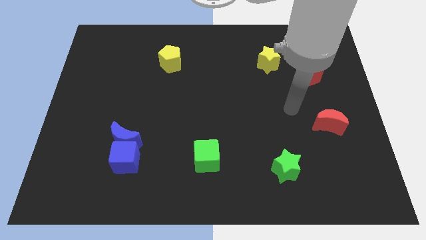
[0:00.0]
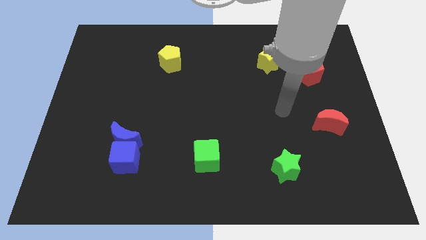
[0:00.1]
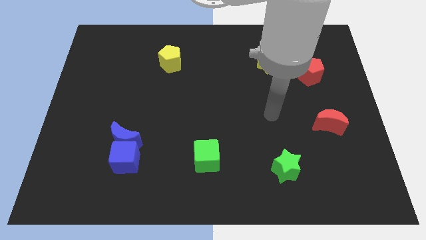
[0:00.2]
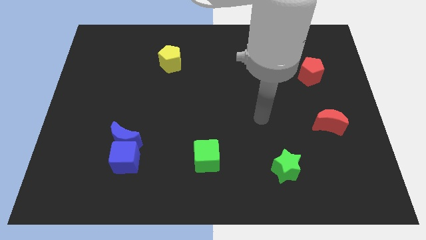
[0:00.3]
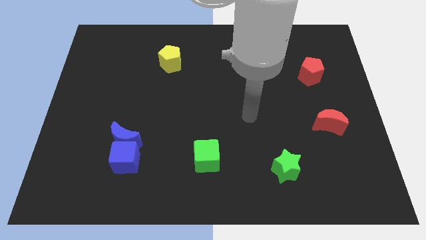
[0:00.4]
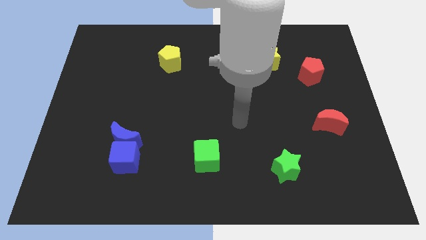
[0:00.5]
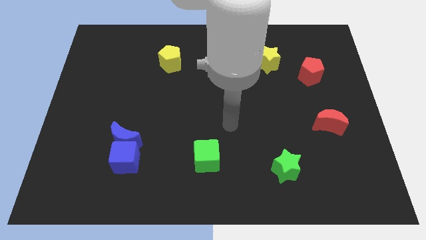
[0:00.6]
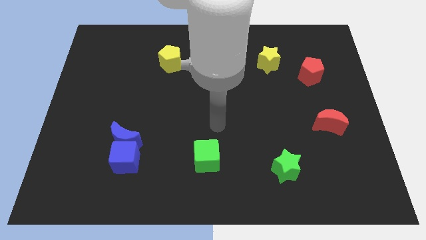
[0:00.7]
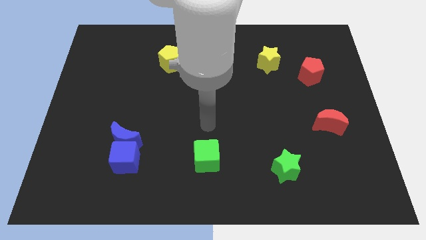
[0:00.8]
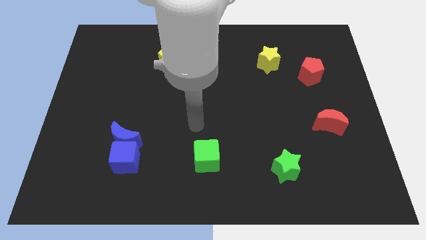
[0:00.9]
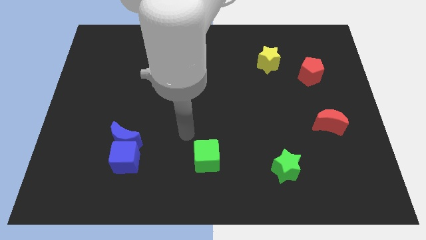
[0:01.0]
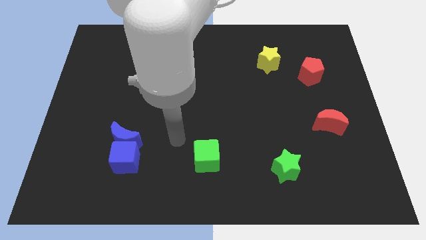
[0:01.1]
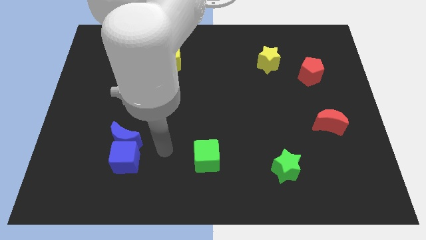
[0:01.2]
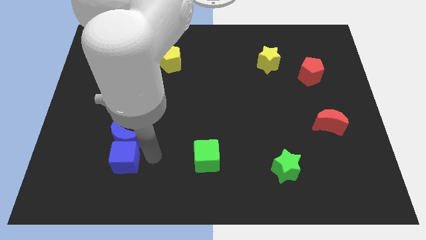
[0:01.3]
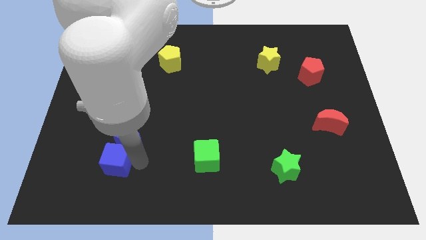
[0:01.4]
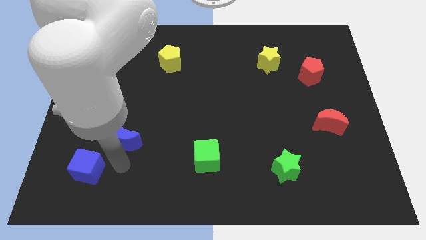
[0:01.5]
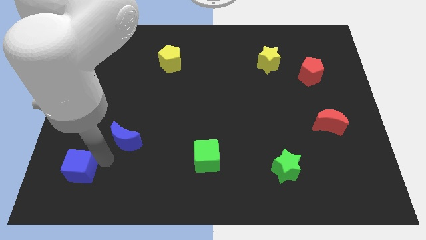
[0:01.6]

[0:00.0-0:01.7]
pull the blue moon apart from the blue cube

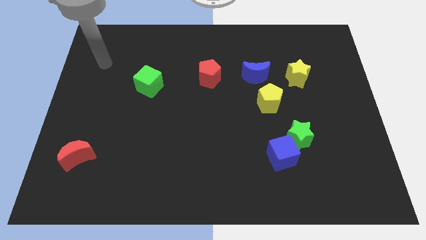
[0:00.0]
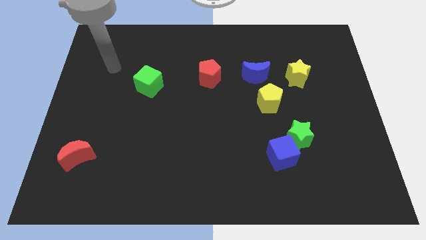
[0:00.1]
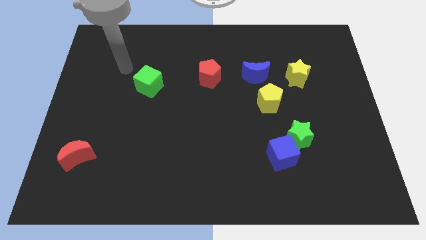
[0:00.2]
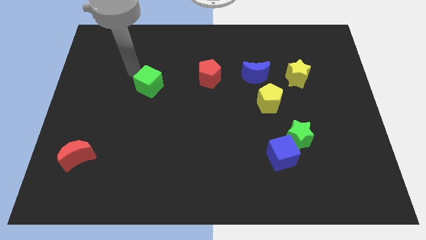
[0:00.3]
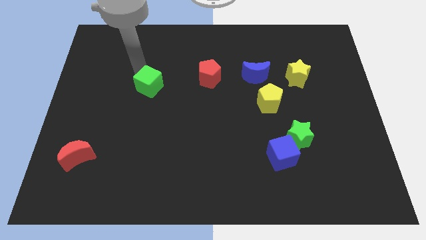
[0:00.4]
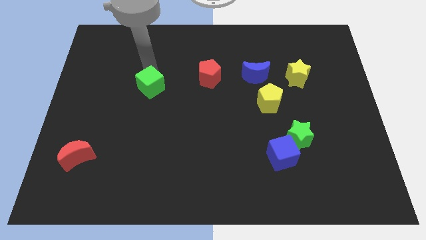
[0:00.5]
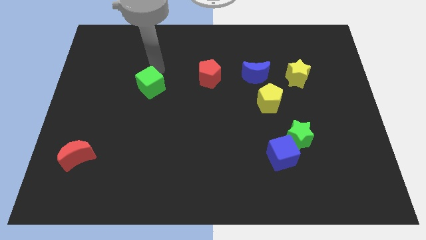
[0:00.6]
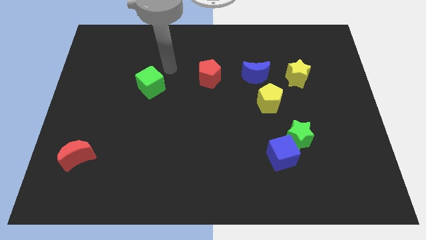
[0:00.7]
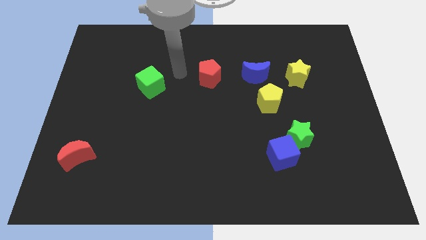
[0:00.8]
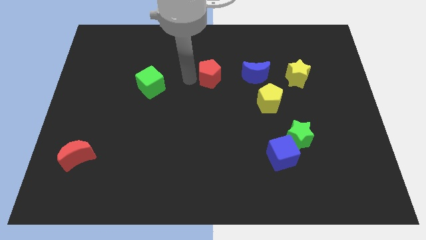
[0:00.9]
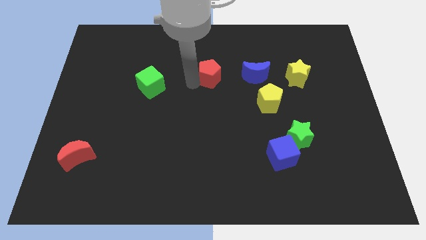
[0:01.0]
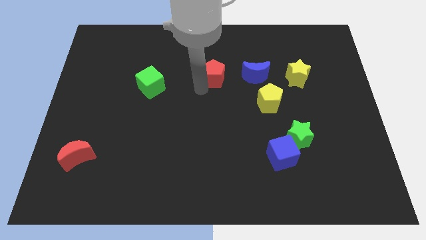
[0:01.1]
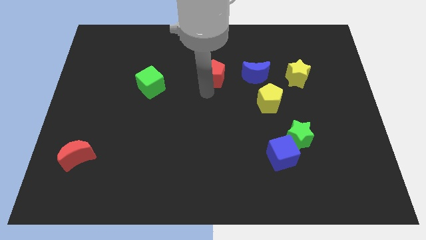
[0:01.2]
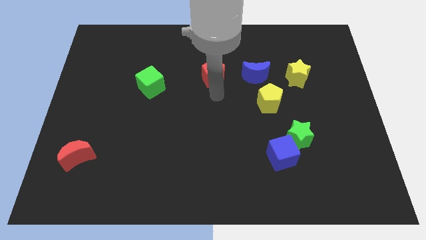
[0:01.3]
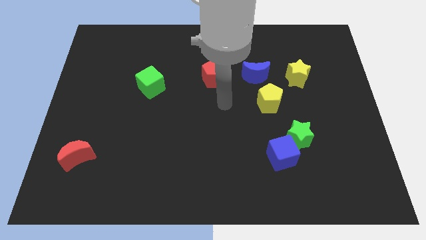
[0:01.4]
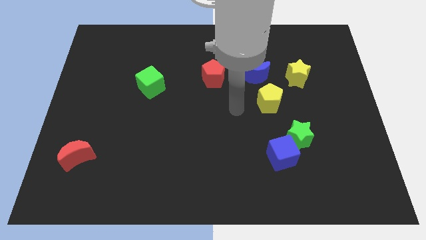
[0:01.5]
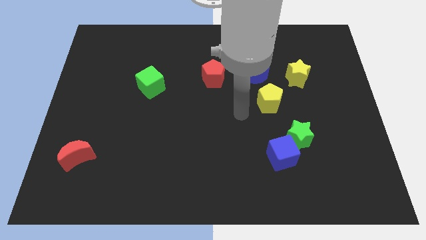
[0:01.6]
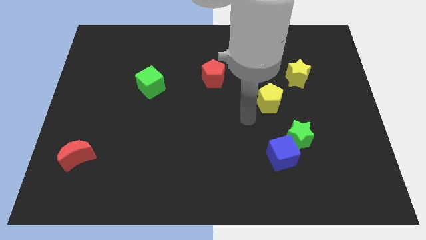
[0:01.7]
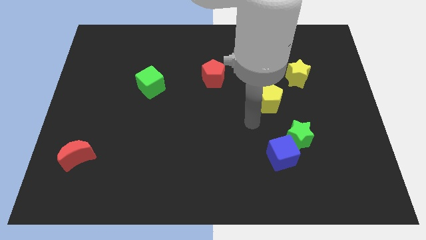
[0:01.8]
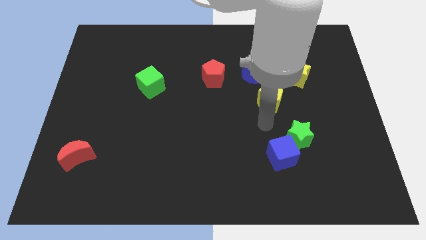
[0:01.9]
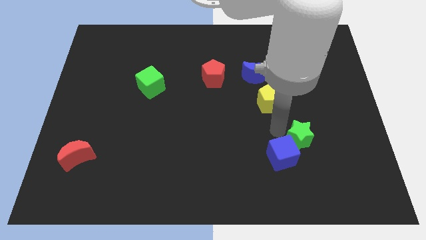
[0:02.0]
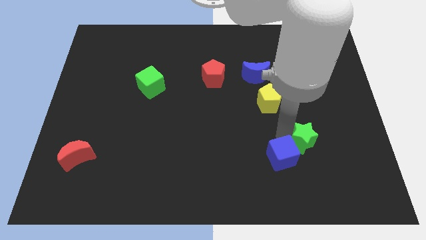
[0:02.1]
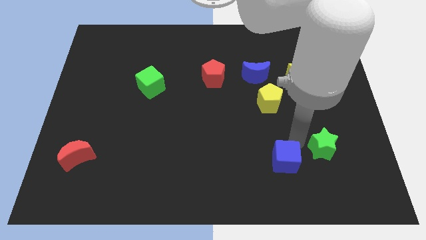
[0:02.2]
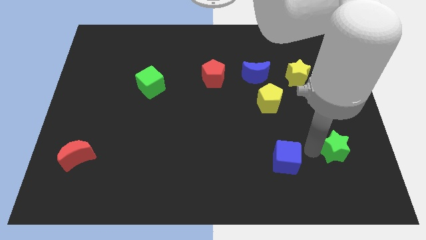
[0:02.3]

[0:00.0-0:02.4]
separate the blue cube from the green star

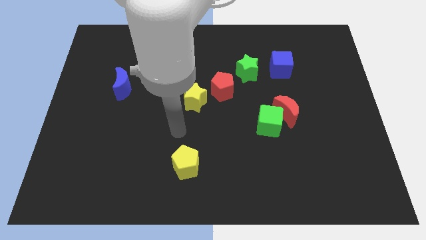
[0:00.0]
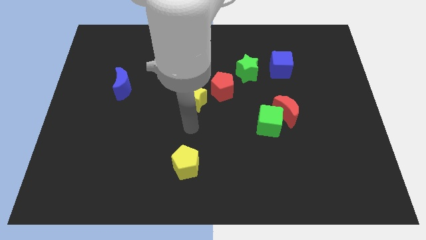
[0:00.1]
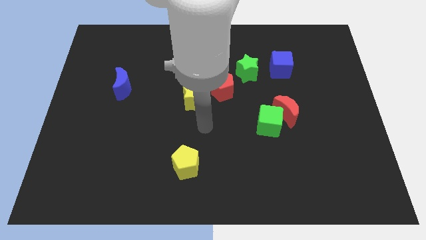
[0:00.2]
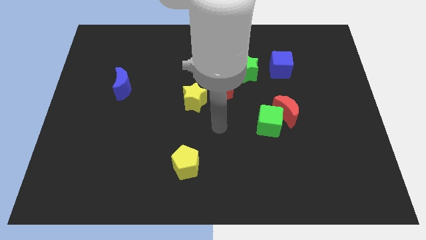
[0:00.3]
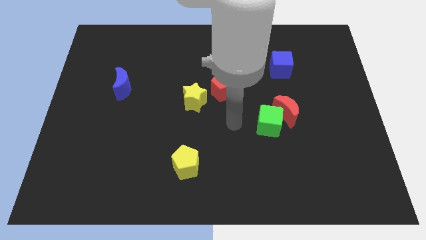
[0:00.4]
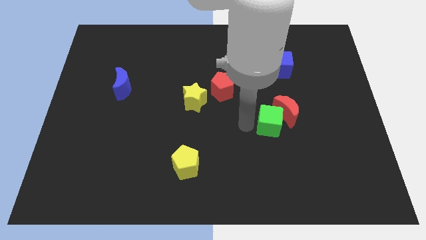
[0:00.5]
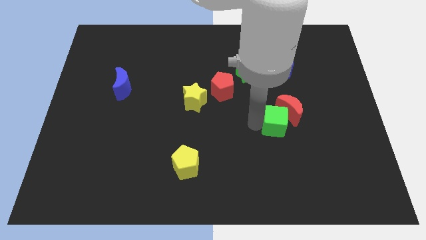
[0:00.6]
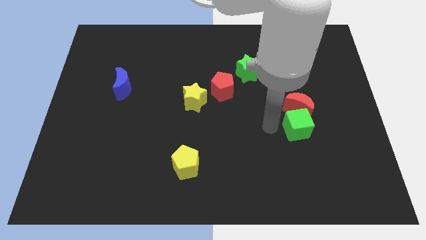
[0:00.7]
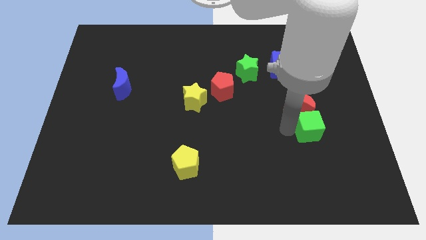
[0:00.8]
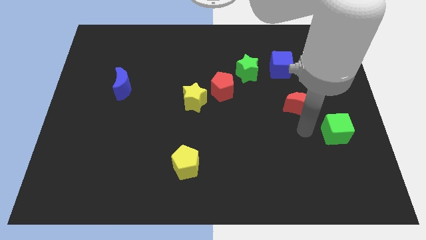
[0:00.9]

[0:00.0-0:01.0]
pull the red moon apart from the green cube

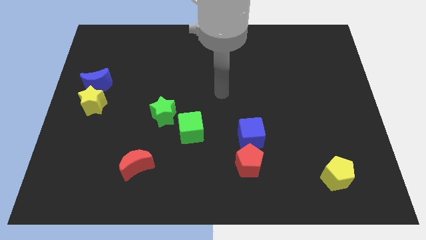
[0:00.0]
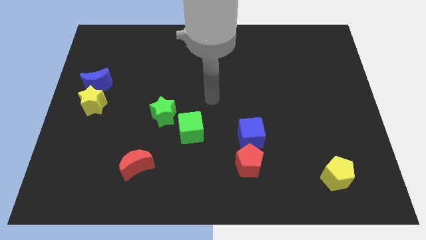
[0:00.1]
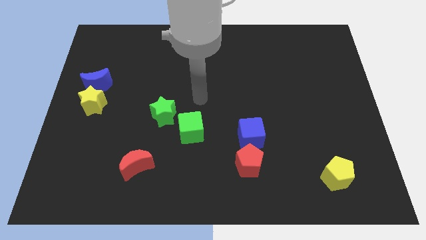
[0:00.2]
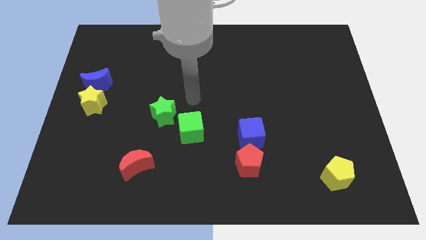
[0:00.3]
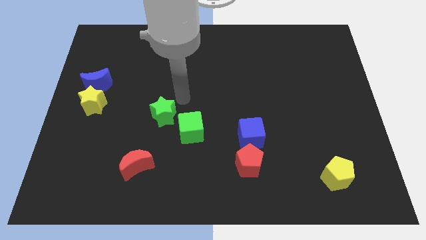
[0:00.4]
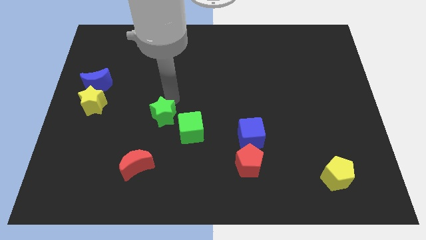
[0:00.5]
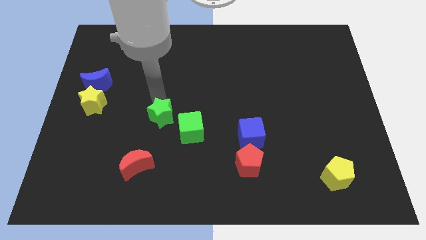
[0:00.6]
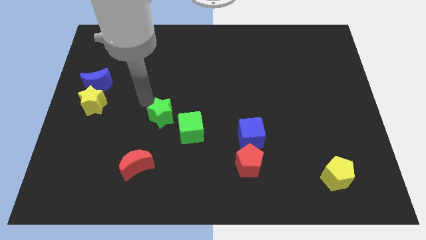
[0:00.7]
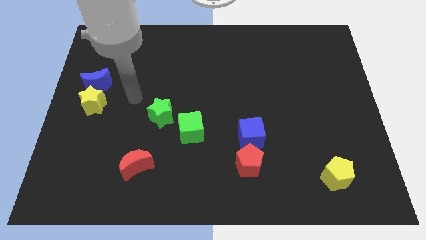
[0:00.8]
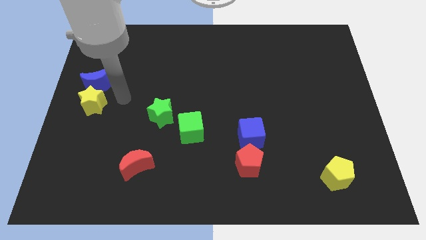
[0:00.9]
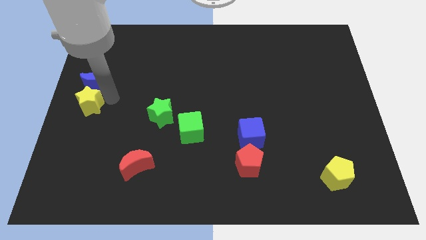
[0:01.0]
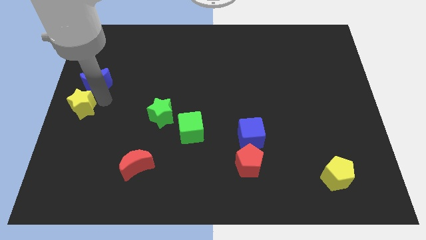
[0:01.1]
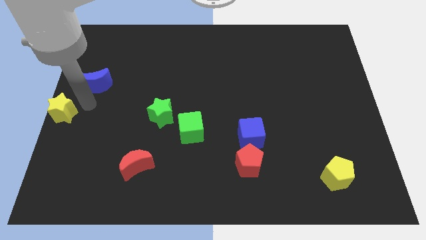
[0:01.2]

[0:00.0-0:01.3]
pull the blue moon apart from the yellow star

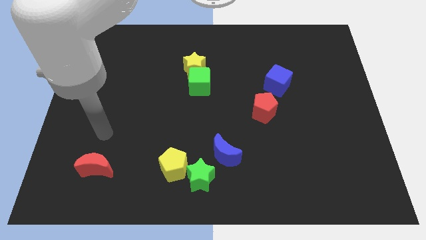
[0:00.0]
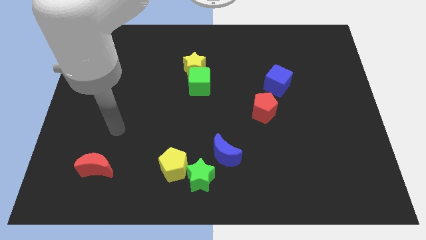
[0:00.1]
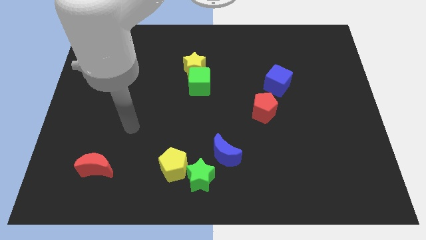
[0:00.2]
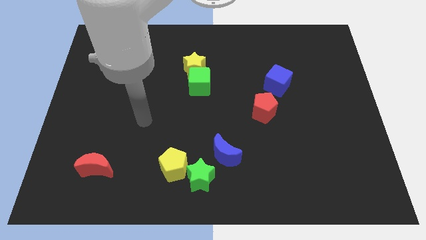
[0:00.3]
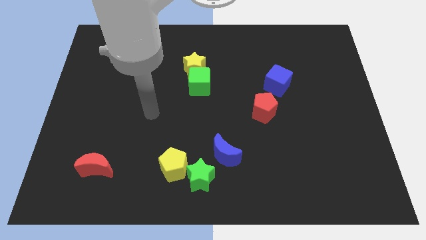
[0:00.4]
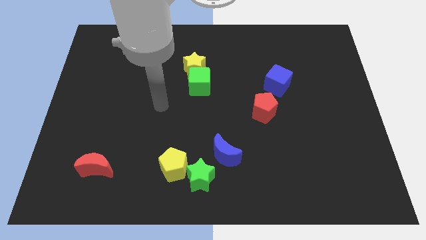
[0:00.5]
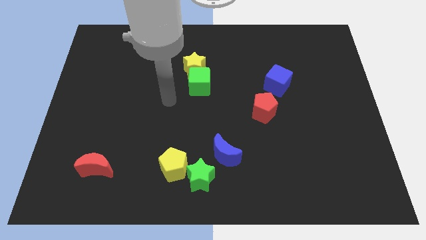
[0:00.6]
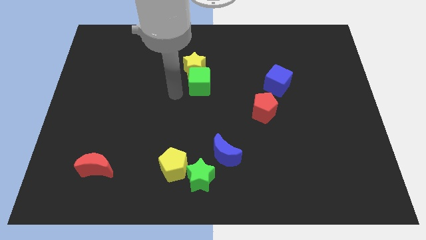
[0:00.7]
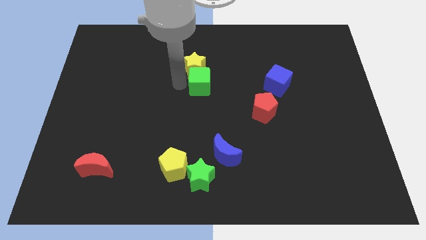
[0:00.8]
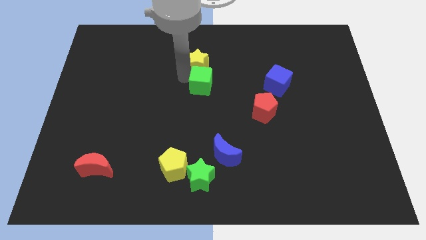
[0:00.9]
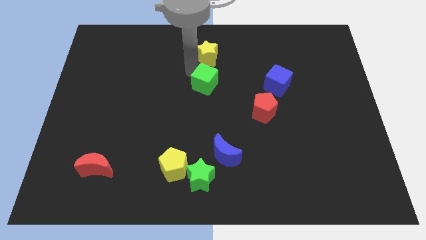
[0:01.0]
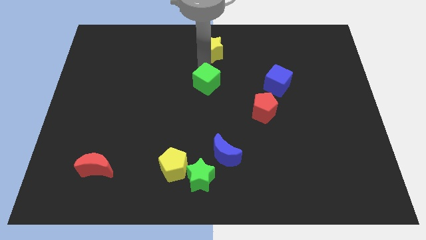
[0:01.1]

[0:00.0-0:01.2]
move the green cube away from the yellow star

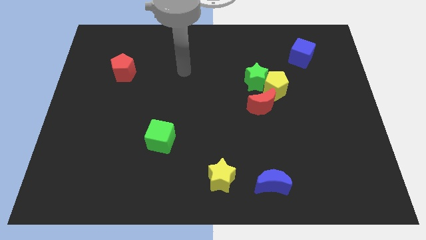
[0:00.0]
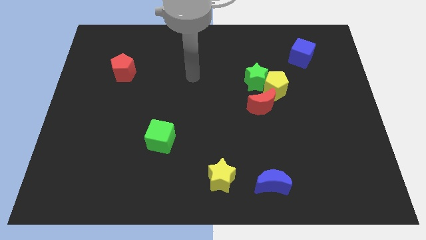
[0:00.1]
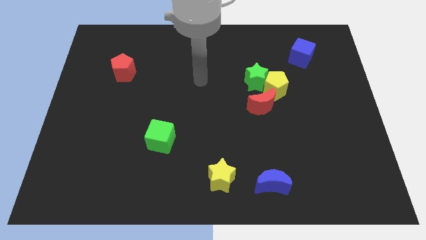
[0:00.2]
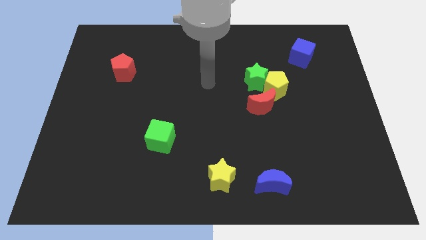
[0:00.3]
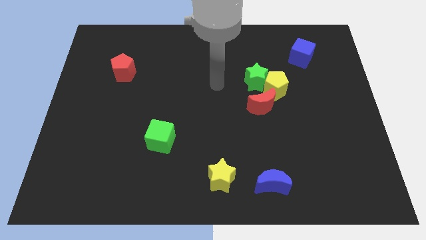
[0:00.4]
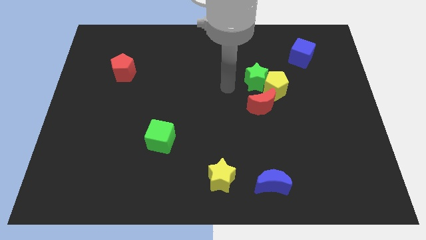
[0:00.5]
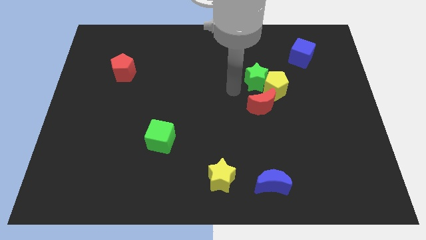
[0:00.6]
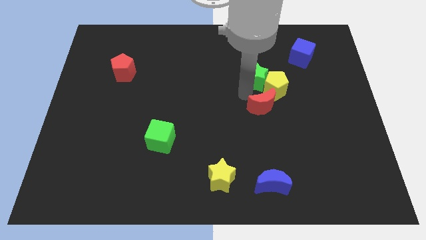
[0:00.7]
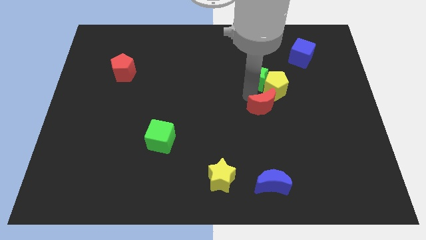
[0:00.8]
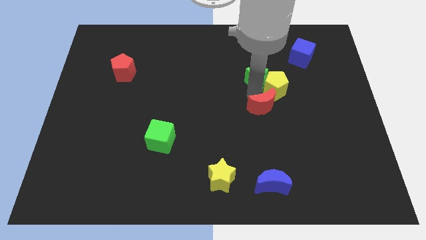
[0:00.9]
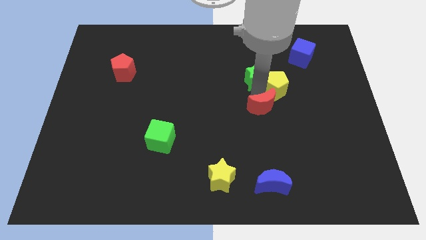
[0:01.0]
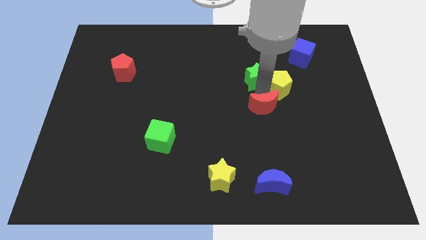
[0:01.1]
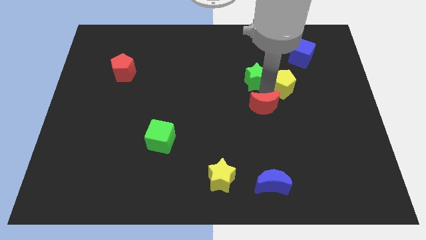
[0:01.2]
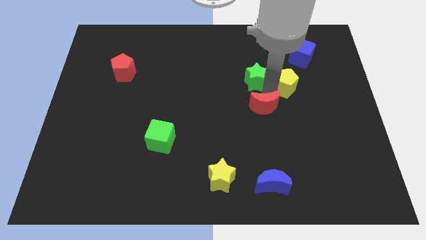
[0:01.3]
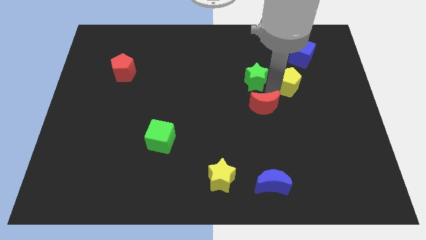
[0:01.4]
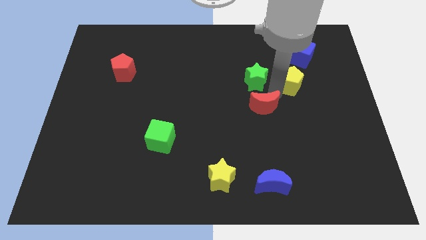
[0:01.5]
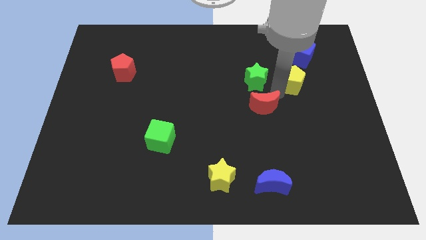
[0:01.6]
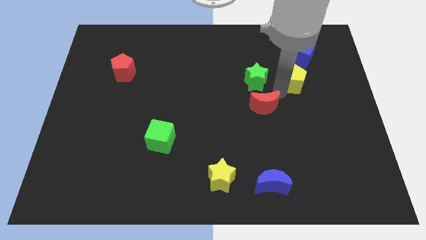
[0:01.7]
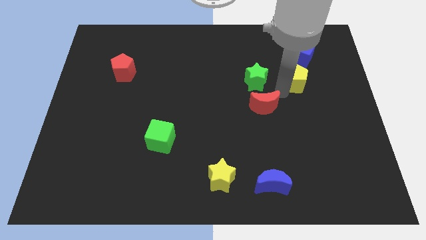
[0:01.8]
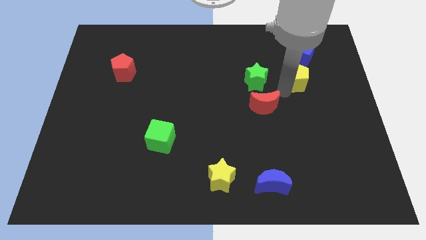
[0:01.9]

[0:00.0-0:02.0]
move the yellow pentagon away from the green star and red moon
